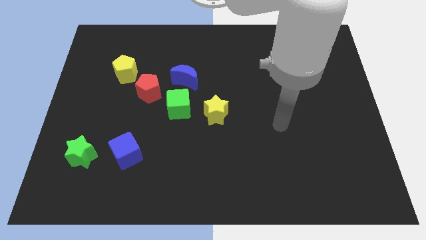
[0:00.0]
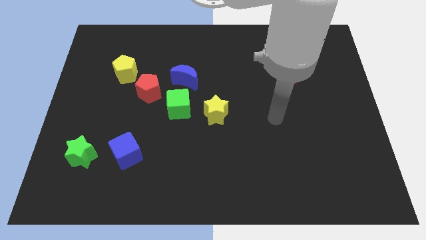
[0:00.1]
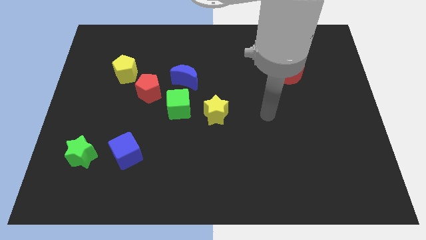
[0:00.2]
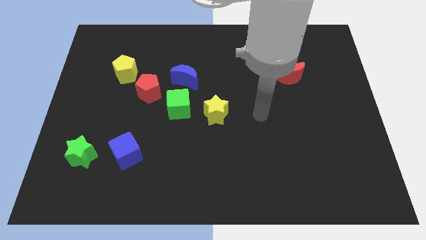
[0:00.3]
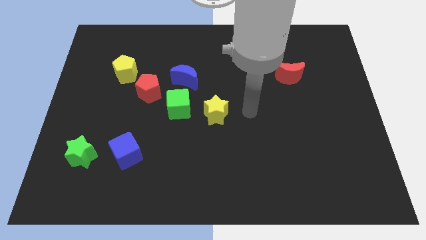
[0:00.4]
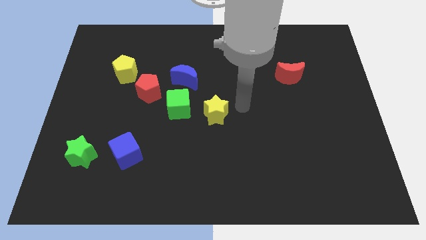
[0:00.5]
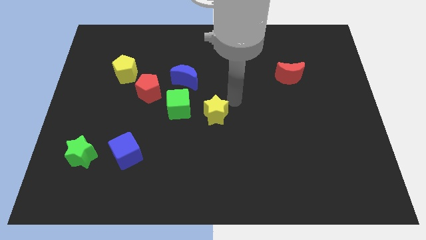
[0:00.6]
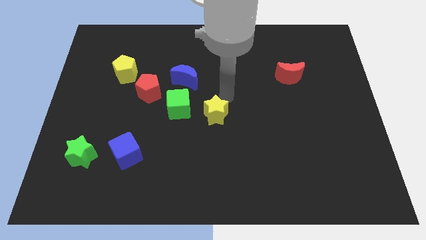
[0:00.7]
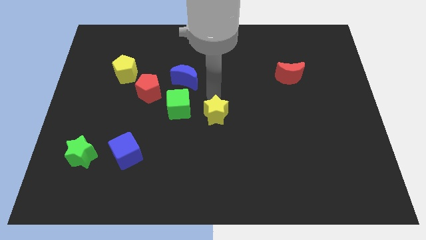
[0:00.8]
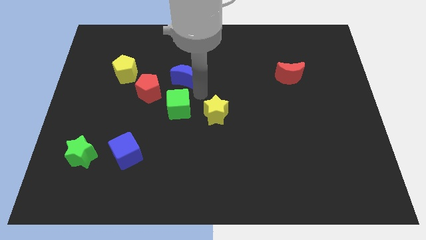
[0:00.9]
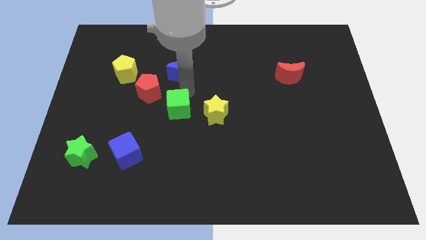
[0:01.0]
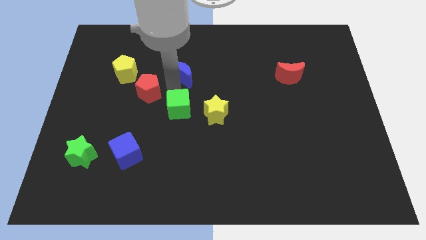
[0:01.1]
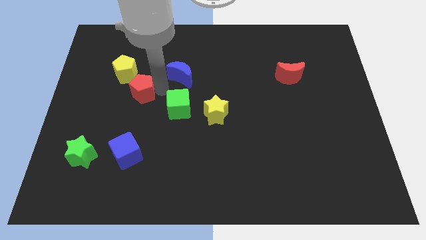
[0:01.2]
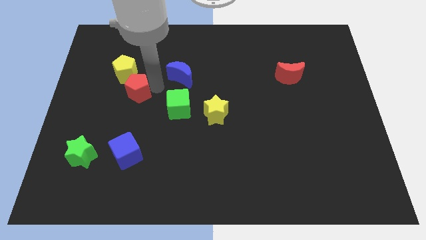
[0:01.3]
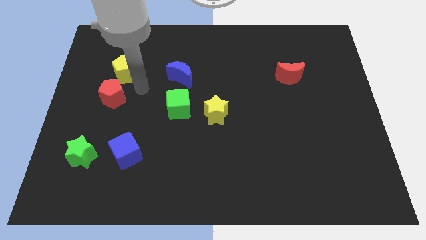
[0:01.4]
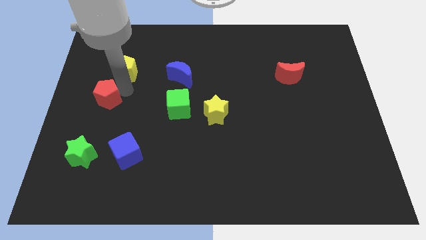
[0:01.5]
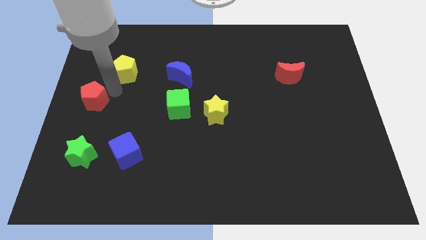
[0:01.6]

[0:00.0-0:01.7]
separate the yellow pentagon from the red pentagon

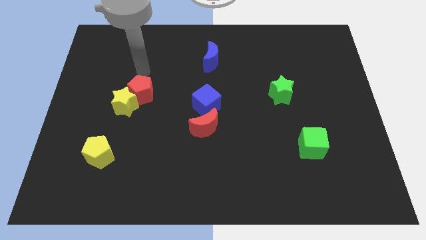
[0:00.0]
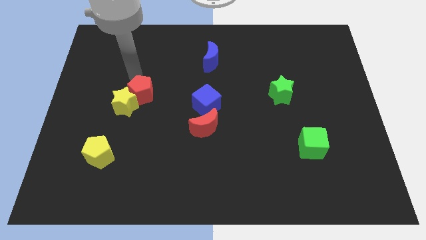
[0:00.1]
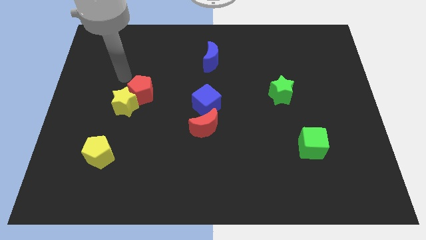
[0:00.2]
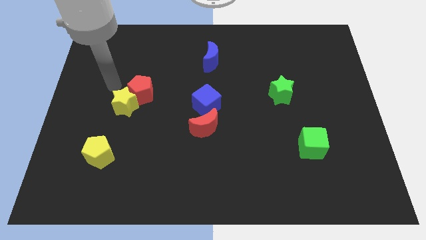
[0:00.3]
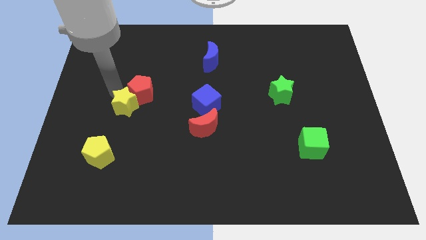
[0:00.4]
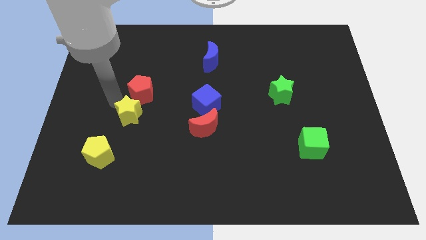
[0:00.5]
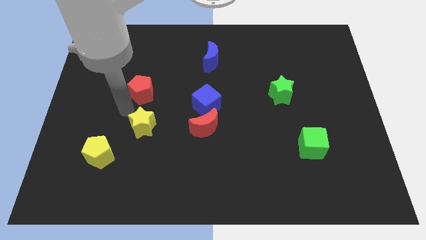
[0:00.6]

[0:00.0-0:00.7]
separate the red pentagon from the yellow star

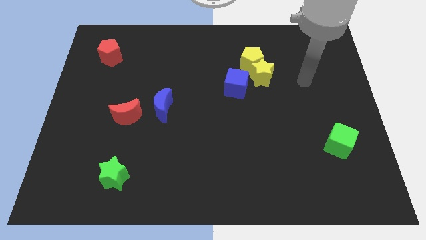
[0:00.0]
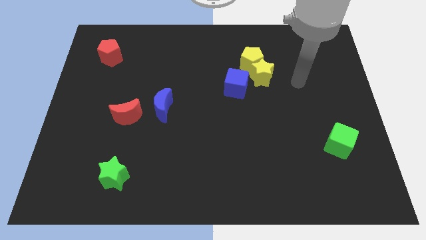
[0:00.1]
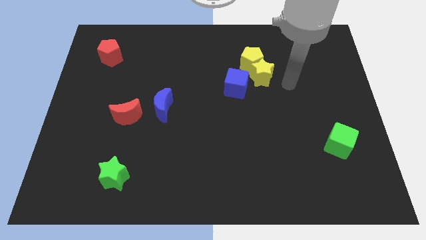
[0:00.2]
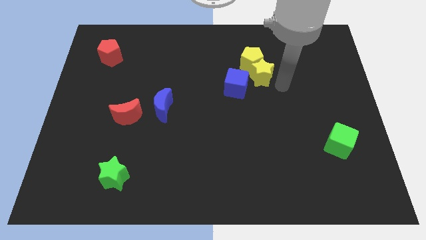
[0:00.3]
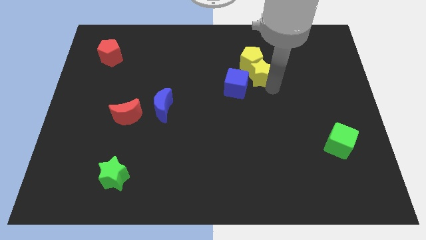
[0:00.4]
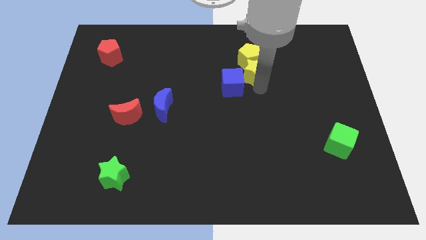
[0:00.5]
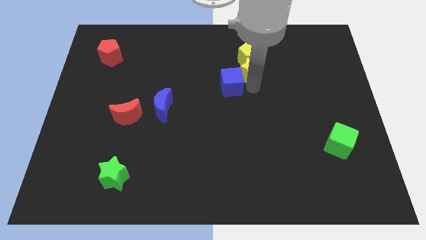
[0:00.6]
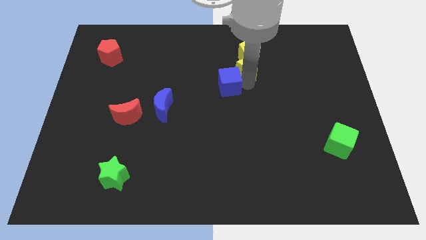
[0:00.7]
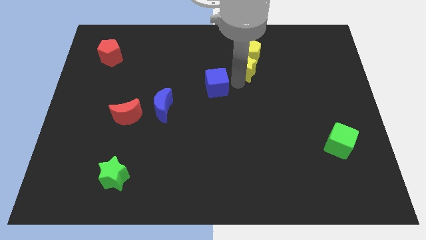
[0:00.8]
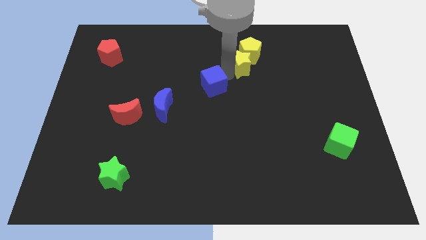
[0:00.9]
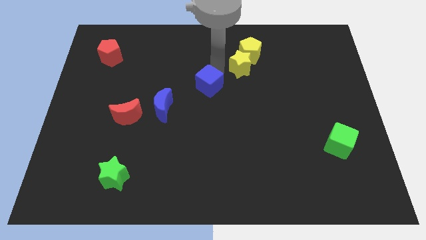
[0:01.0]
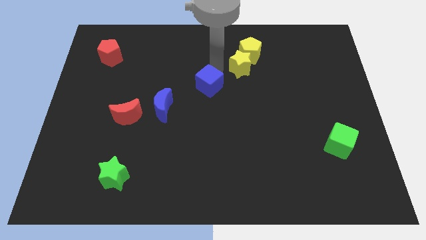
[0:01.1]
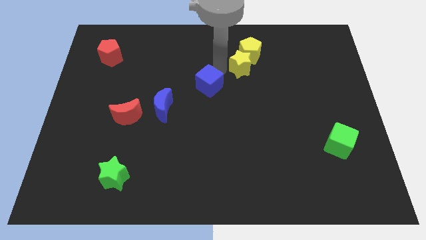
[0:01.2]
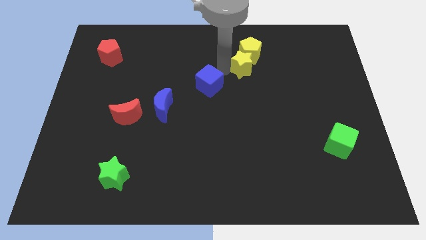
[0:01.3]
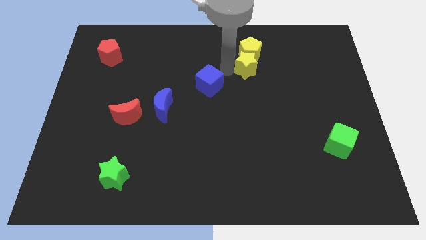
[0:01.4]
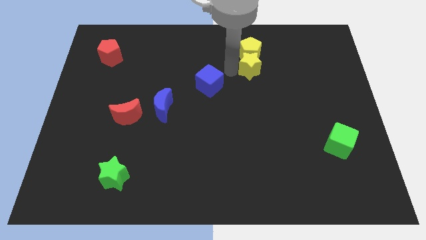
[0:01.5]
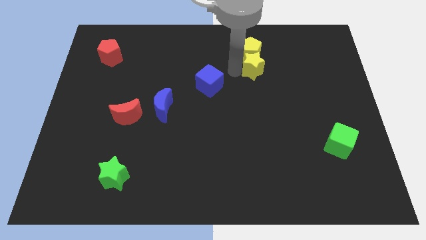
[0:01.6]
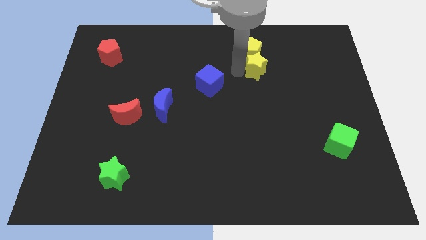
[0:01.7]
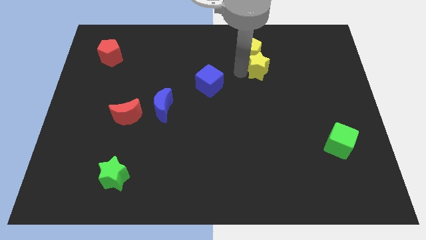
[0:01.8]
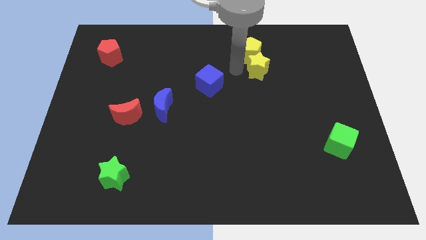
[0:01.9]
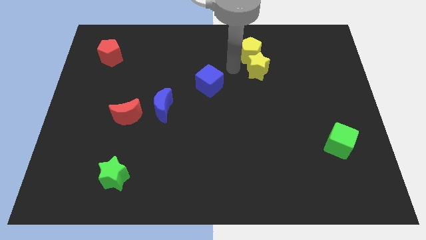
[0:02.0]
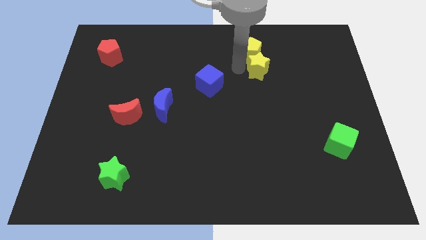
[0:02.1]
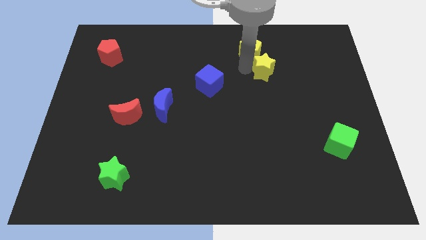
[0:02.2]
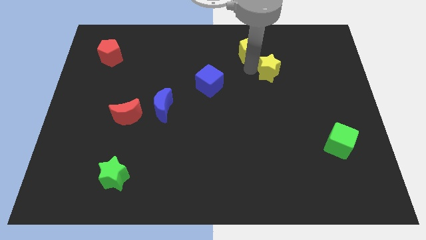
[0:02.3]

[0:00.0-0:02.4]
pull the yellow star apart from the yellow pentagon and blue cube

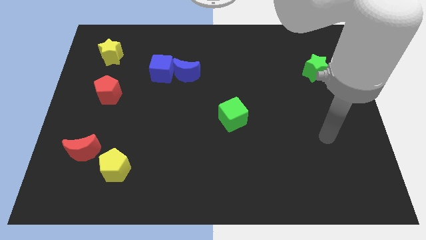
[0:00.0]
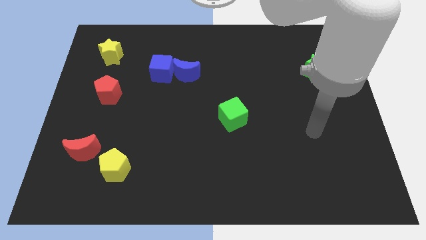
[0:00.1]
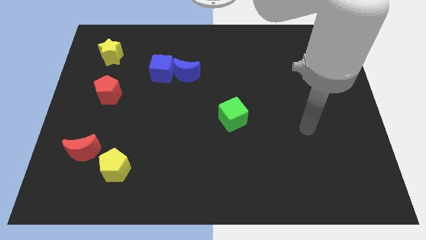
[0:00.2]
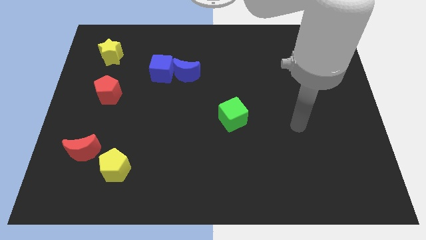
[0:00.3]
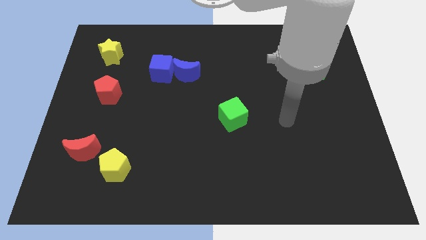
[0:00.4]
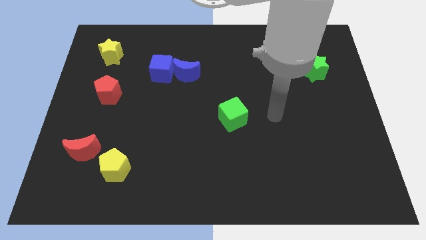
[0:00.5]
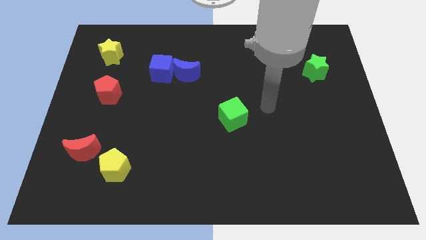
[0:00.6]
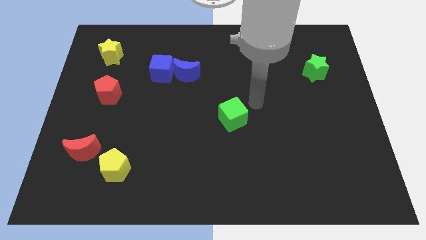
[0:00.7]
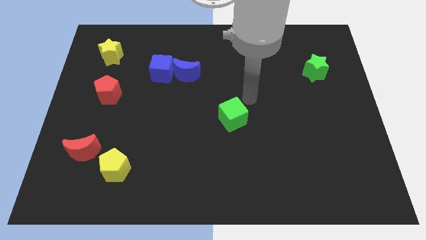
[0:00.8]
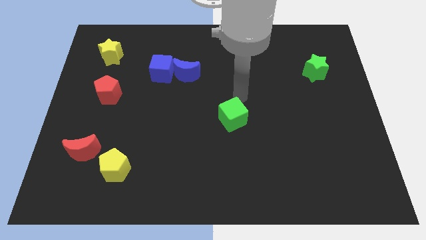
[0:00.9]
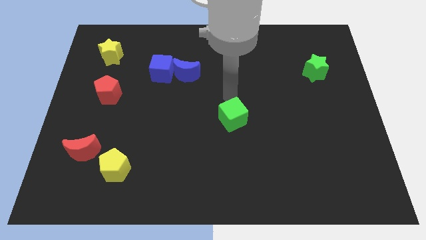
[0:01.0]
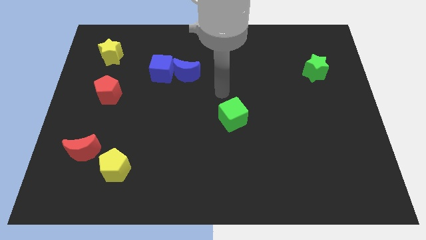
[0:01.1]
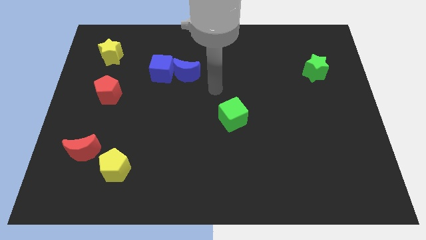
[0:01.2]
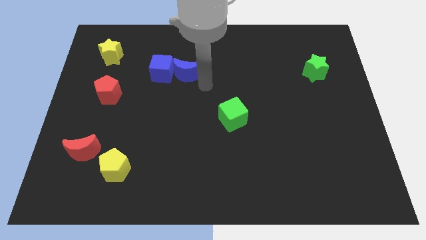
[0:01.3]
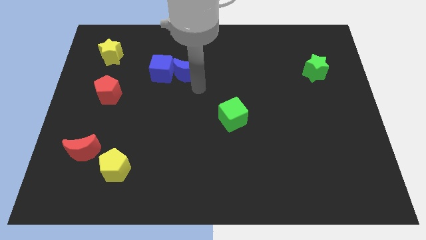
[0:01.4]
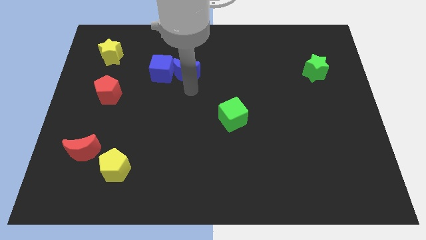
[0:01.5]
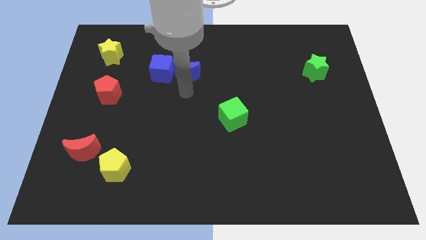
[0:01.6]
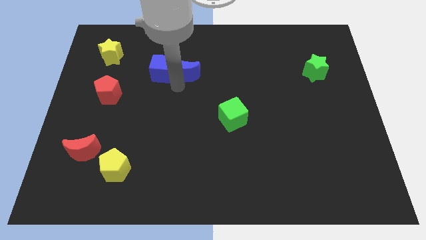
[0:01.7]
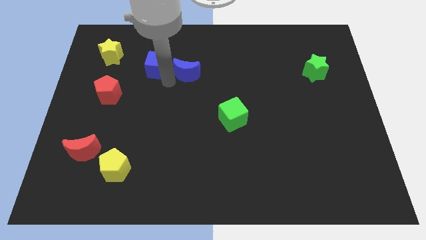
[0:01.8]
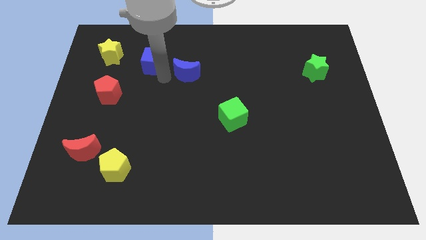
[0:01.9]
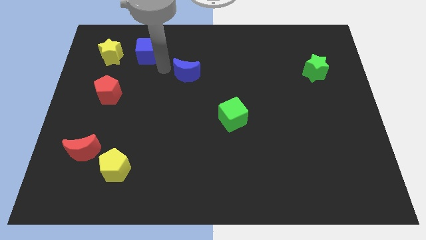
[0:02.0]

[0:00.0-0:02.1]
pull the blue moon apart from the blue cube

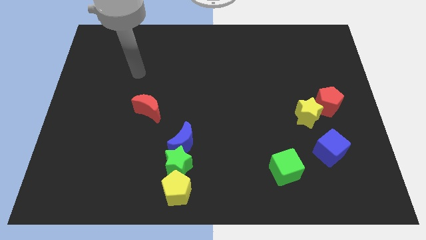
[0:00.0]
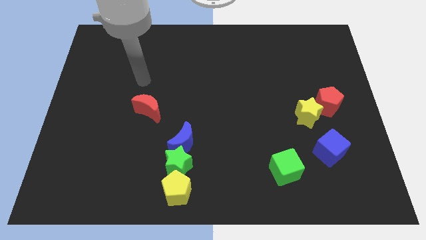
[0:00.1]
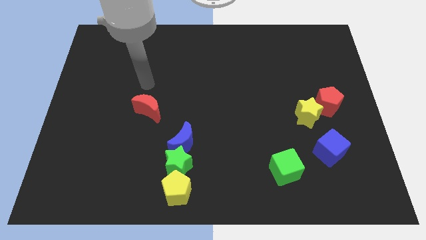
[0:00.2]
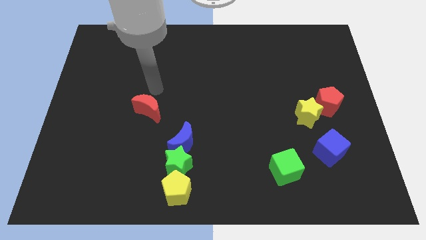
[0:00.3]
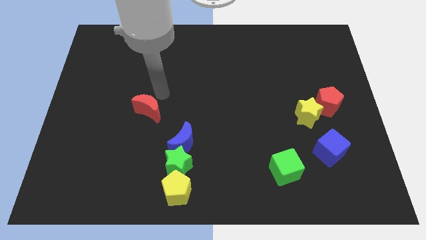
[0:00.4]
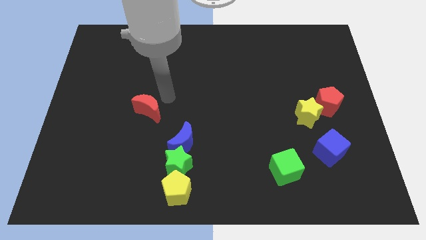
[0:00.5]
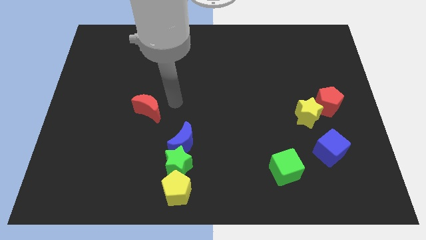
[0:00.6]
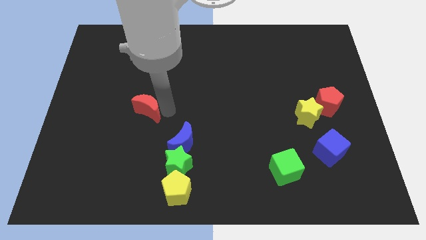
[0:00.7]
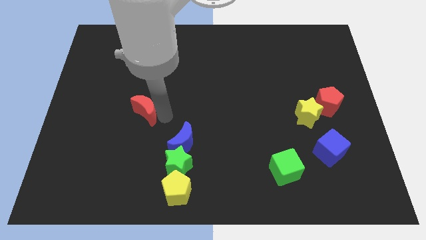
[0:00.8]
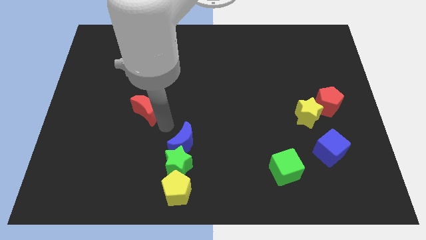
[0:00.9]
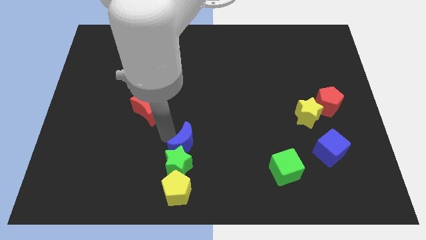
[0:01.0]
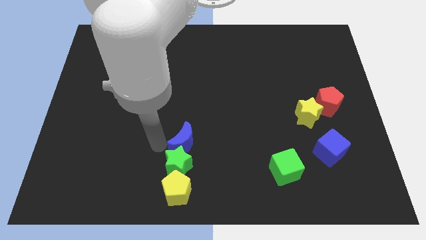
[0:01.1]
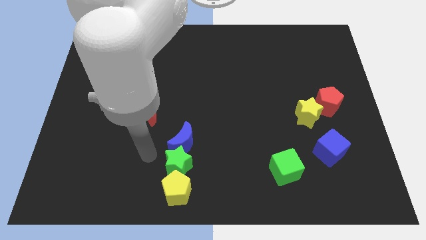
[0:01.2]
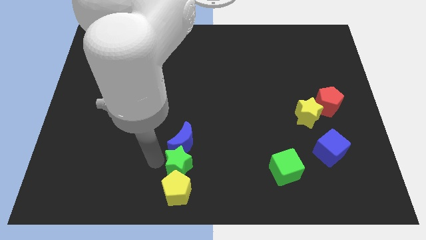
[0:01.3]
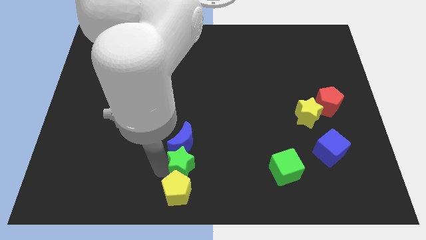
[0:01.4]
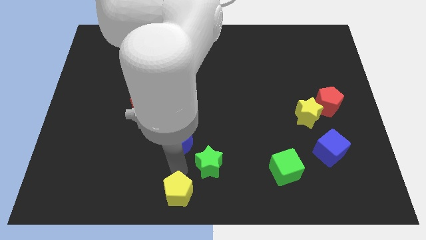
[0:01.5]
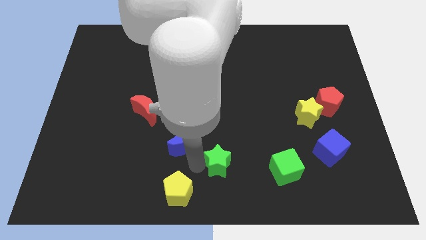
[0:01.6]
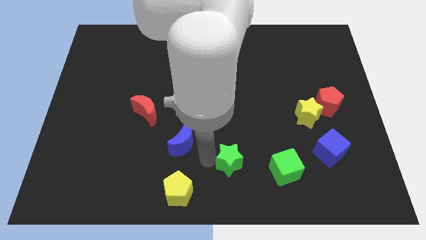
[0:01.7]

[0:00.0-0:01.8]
pull the blue moon apart from the green star

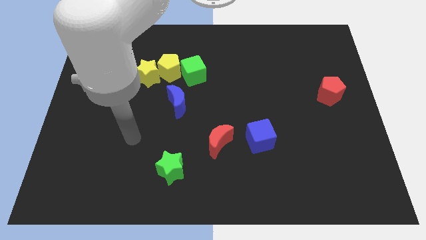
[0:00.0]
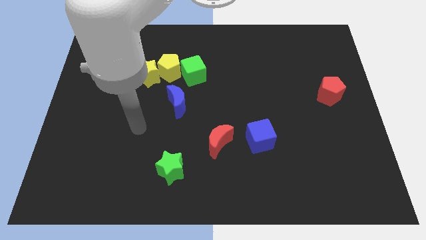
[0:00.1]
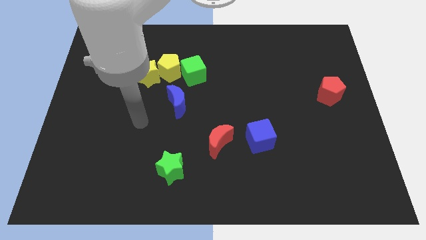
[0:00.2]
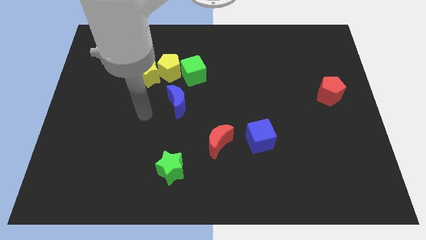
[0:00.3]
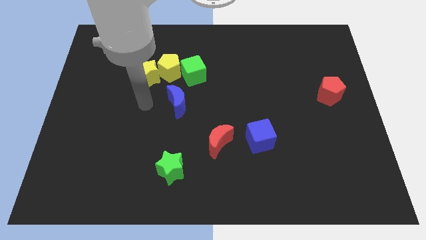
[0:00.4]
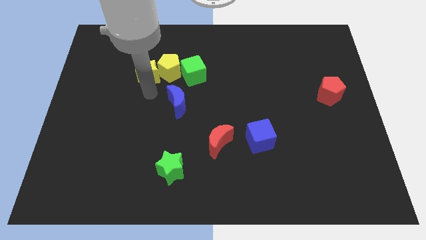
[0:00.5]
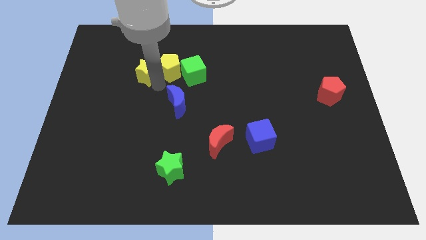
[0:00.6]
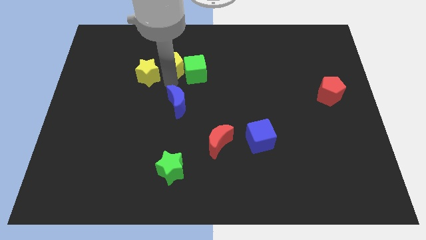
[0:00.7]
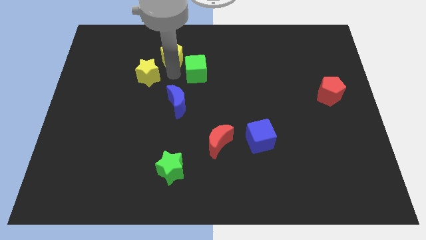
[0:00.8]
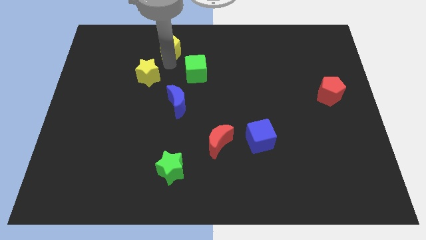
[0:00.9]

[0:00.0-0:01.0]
pull the yellow star apart from the yellow pentagon
